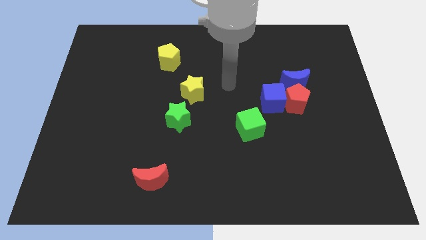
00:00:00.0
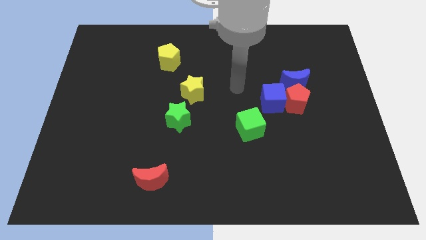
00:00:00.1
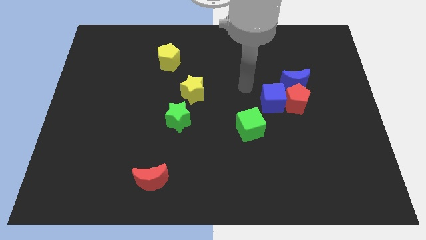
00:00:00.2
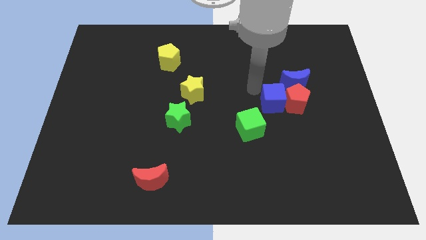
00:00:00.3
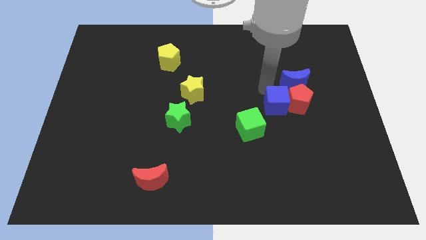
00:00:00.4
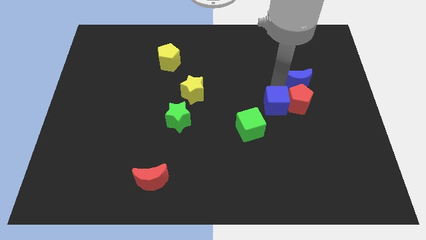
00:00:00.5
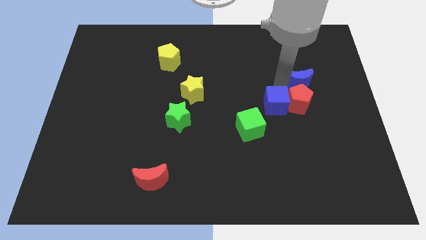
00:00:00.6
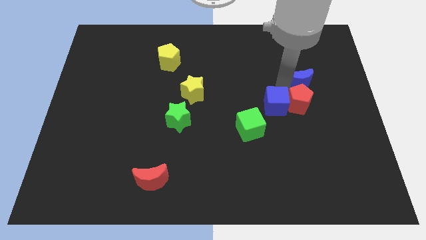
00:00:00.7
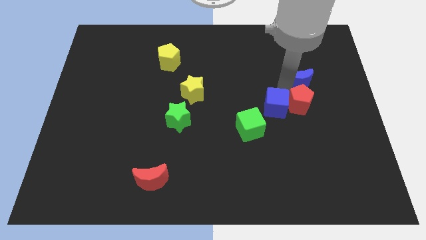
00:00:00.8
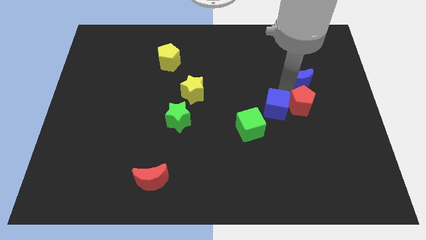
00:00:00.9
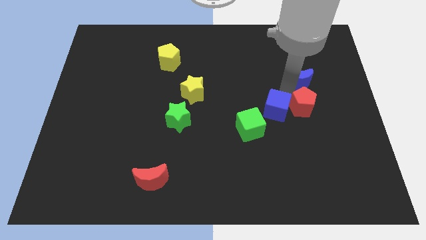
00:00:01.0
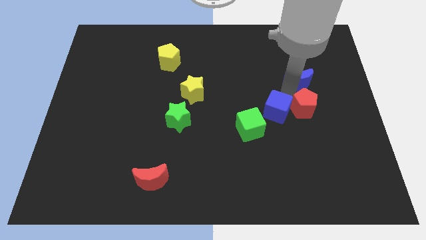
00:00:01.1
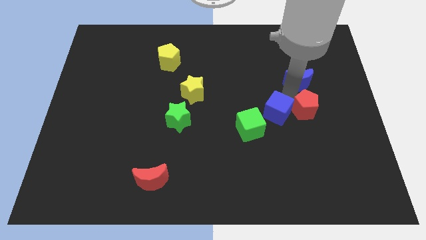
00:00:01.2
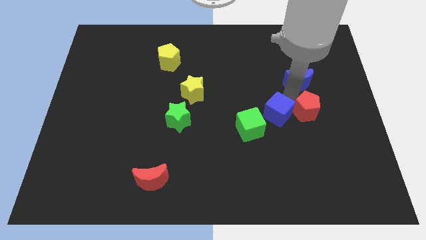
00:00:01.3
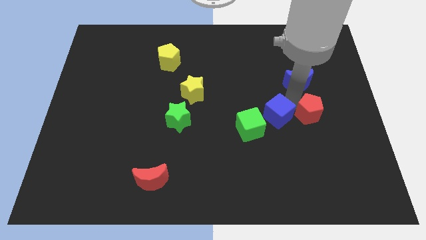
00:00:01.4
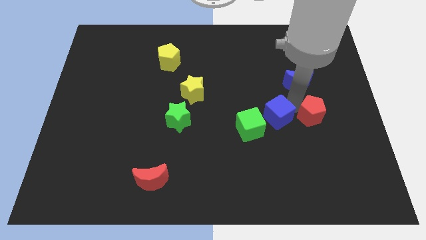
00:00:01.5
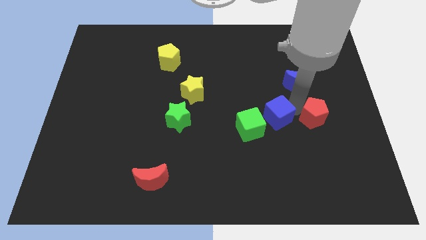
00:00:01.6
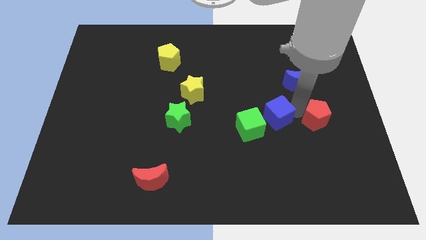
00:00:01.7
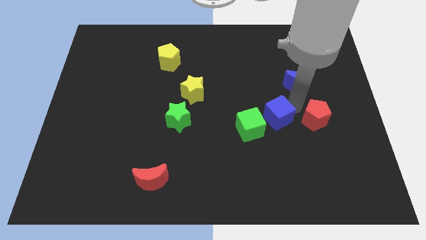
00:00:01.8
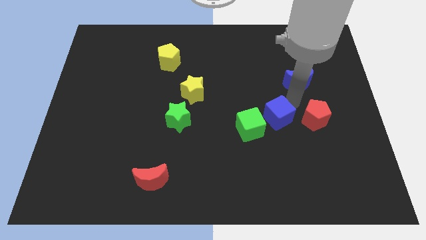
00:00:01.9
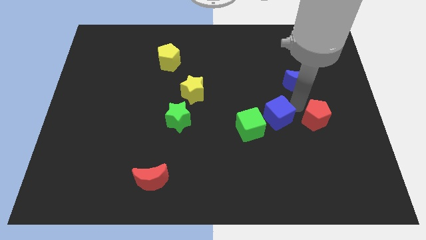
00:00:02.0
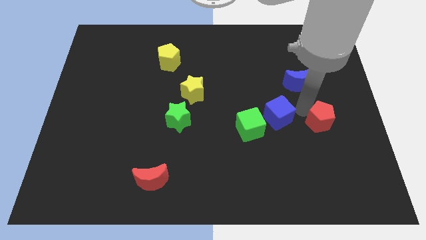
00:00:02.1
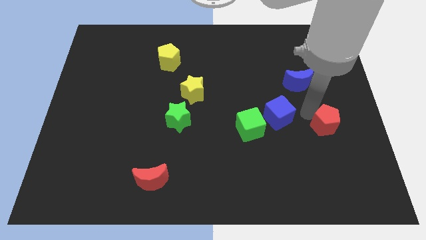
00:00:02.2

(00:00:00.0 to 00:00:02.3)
pull the red pentagon apart from the blue cube and blue moon

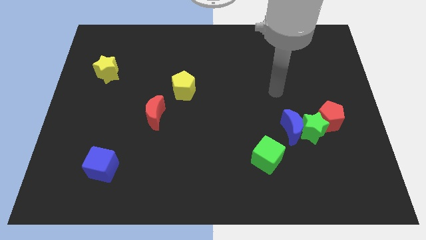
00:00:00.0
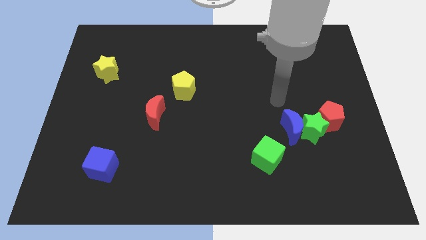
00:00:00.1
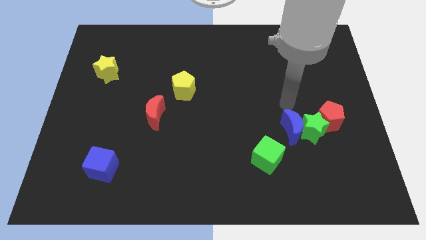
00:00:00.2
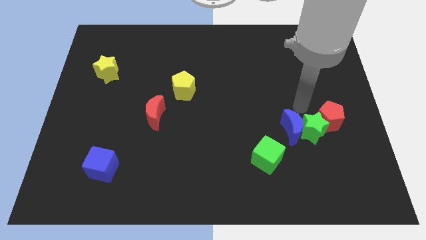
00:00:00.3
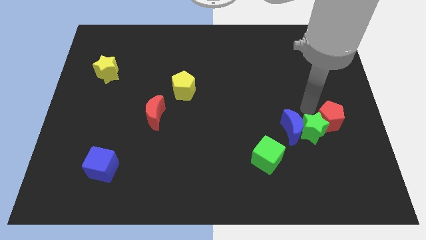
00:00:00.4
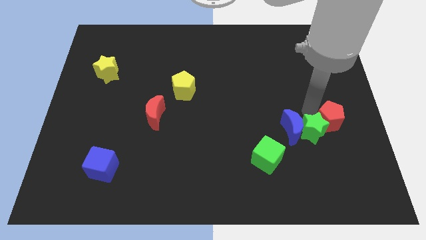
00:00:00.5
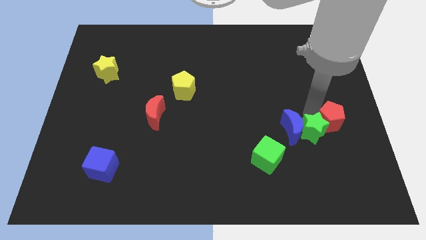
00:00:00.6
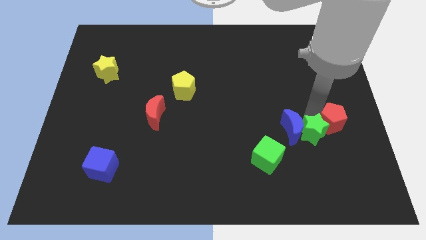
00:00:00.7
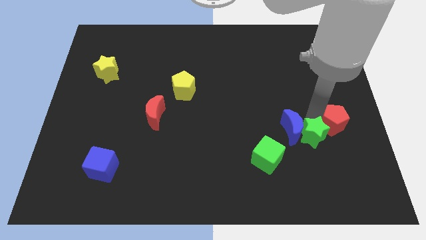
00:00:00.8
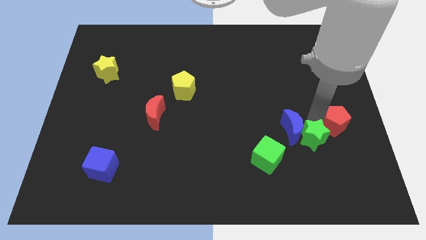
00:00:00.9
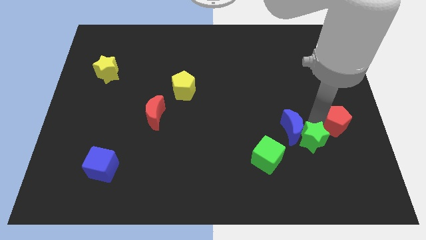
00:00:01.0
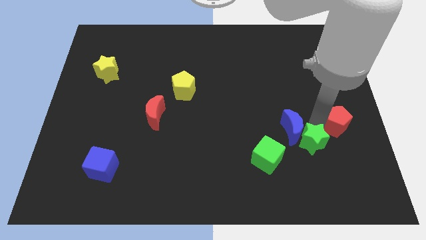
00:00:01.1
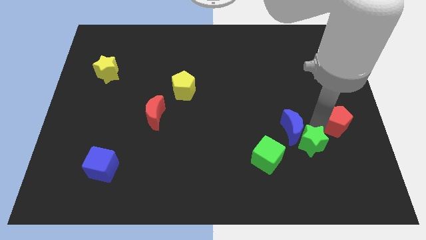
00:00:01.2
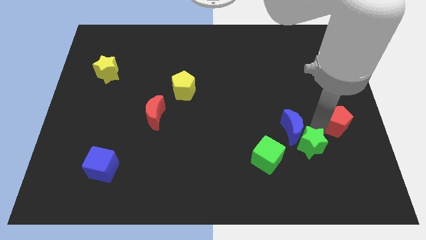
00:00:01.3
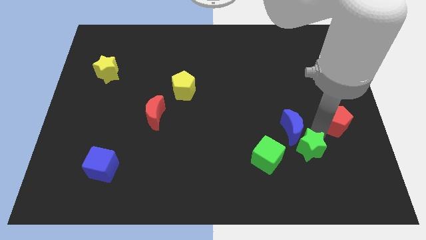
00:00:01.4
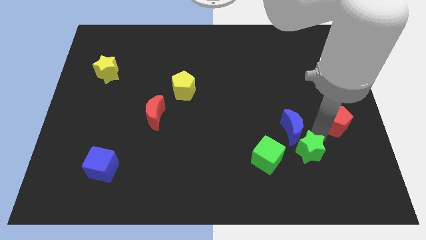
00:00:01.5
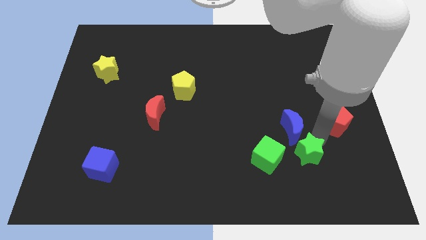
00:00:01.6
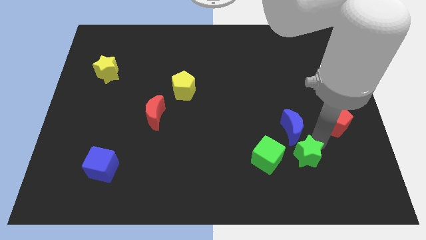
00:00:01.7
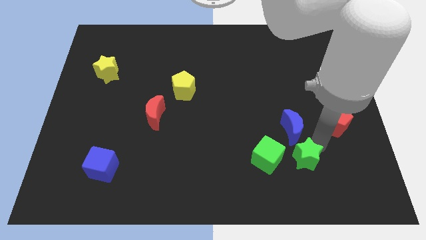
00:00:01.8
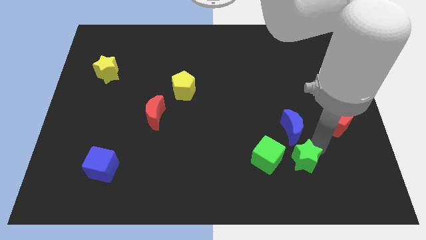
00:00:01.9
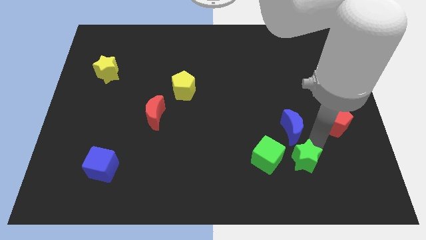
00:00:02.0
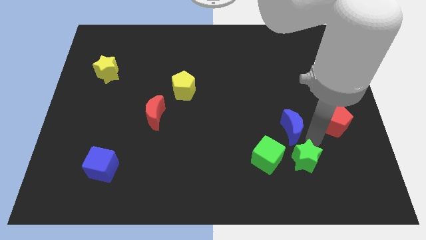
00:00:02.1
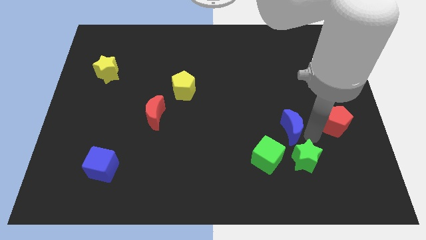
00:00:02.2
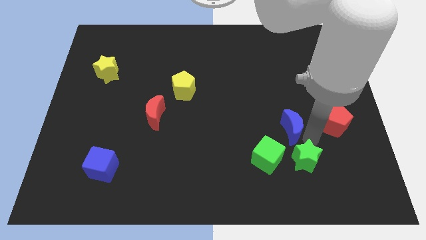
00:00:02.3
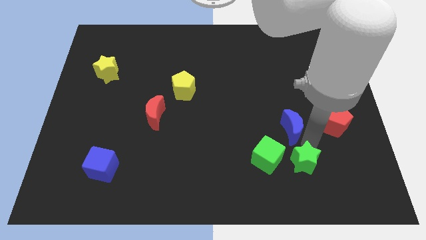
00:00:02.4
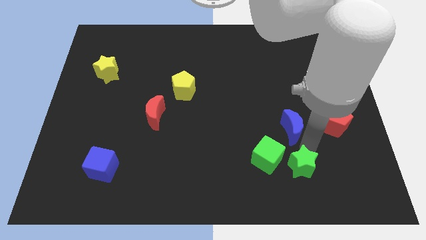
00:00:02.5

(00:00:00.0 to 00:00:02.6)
pull the green star apart from the blue moon and red pentagon

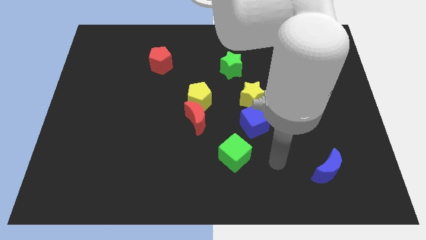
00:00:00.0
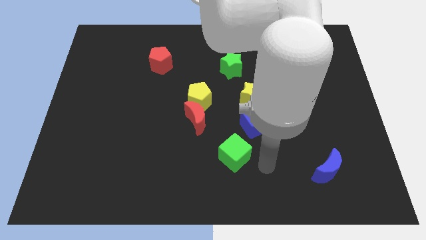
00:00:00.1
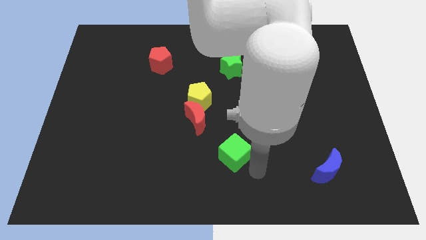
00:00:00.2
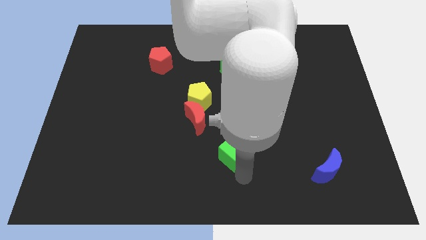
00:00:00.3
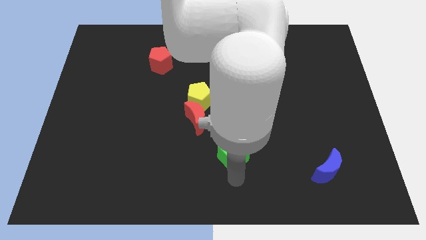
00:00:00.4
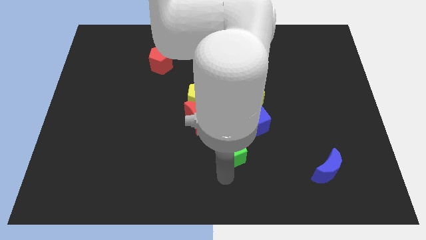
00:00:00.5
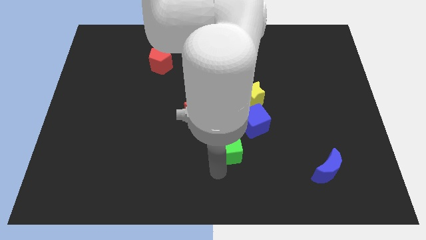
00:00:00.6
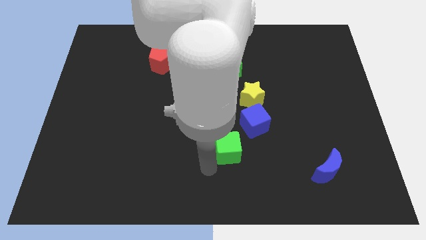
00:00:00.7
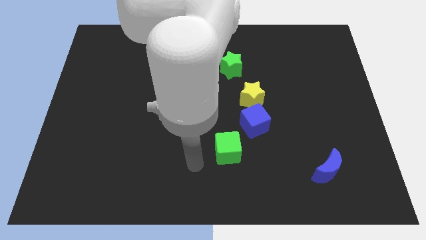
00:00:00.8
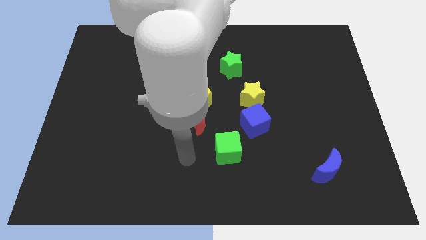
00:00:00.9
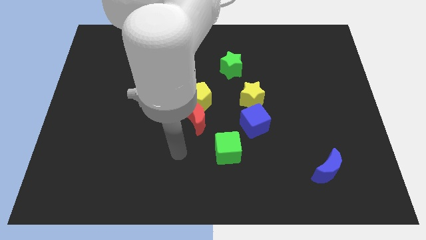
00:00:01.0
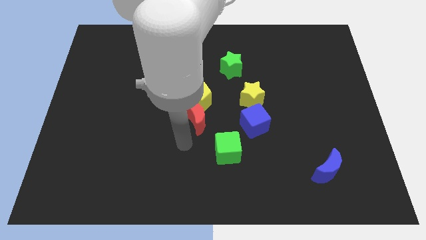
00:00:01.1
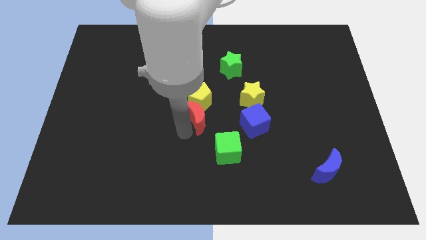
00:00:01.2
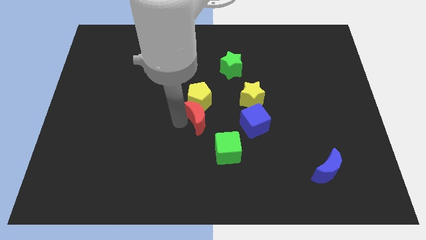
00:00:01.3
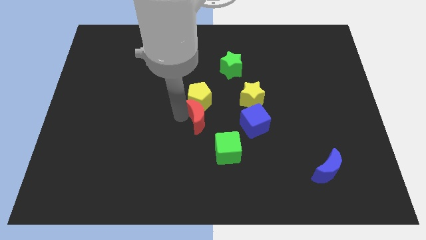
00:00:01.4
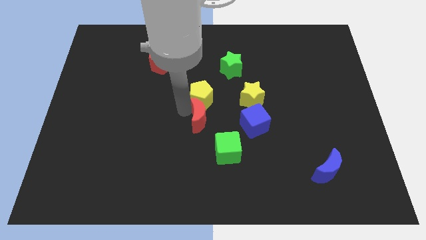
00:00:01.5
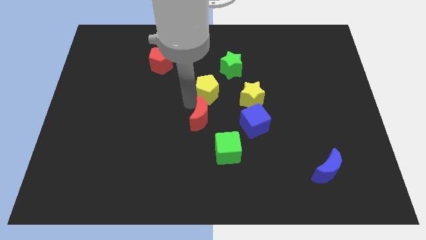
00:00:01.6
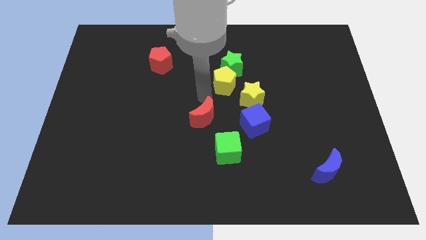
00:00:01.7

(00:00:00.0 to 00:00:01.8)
separate the red moon from the yellow pentagon

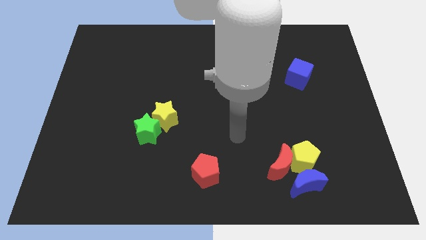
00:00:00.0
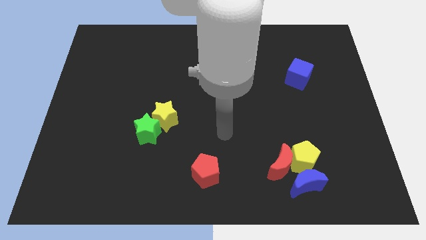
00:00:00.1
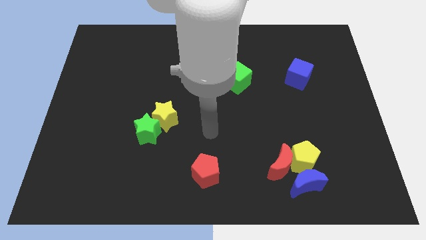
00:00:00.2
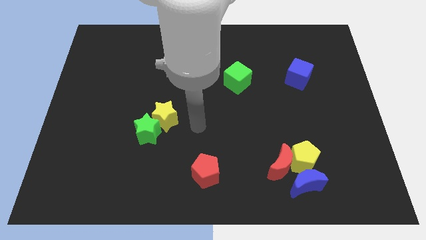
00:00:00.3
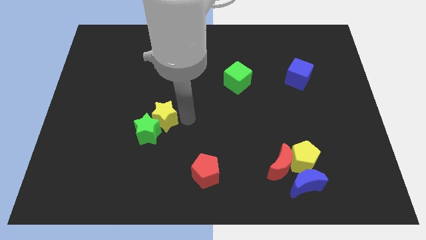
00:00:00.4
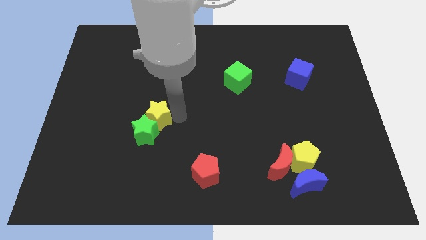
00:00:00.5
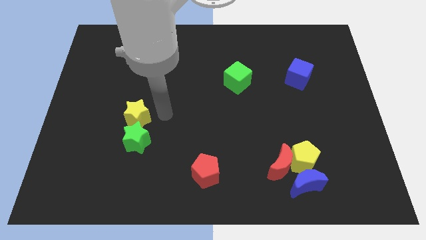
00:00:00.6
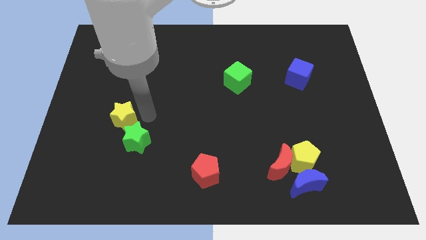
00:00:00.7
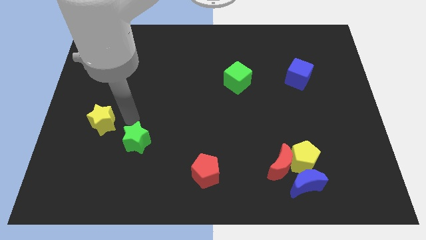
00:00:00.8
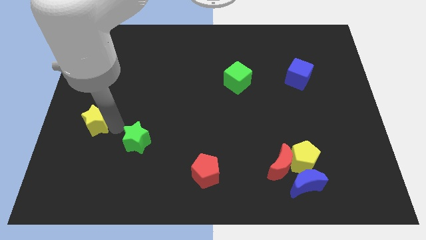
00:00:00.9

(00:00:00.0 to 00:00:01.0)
separate the green star from the yellow star

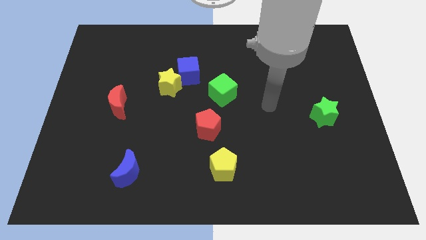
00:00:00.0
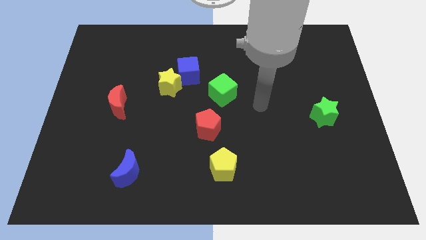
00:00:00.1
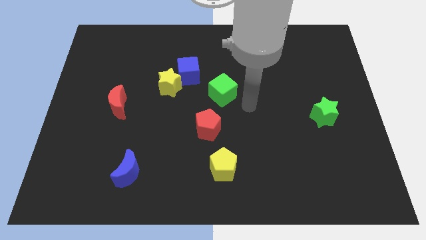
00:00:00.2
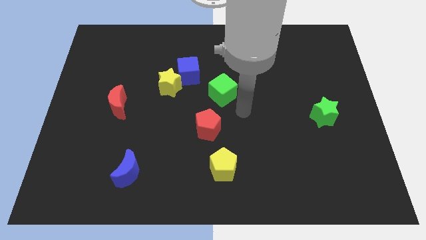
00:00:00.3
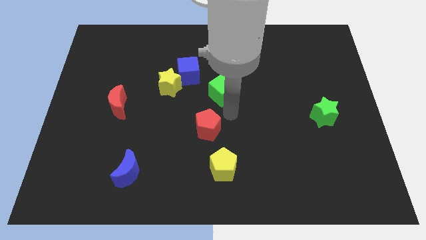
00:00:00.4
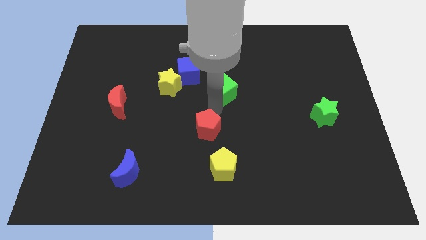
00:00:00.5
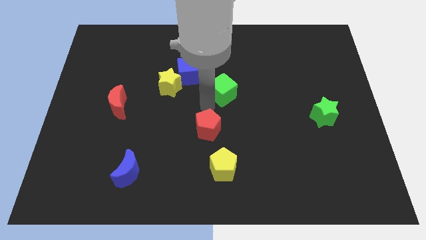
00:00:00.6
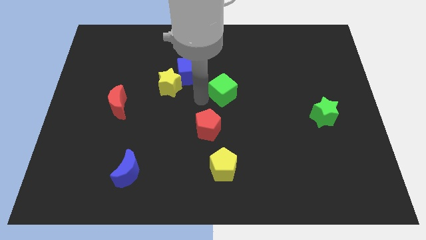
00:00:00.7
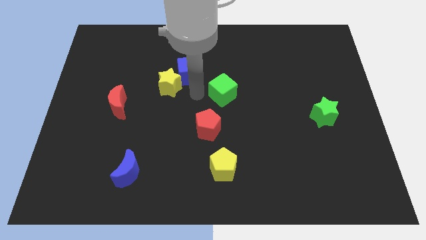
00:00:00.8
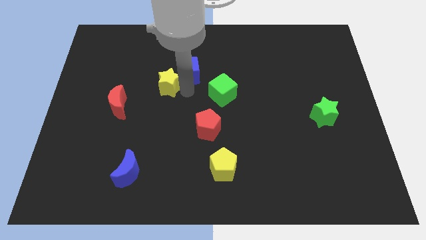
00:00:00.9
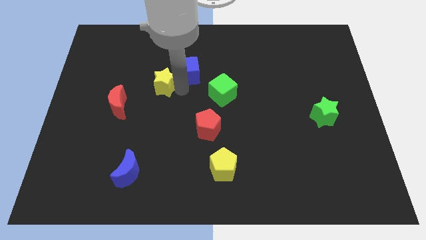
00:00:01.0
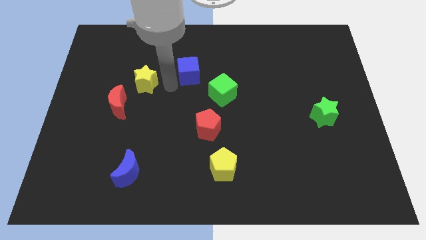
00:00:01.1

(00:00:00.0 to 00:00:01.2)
pull the blue cube apart from the yellow star

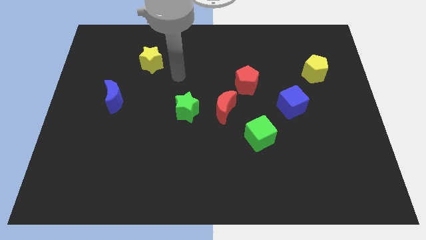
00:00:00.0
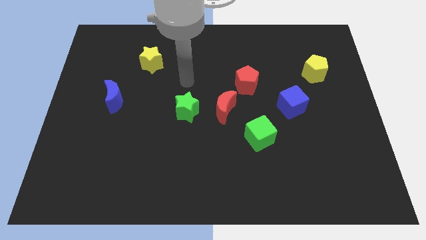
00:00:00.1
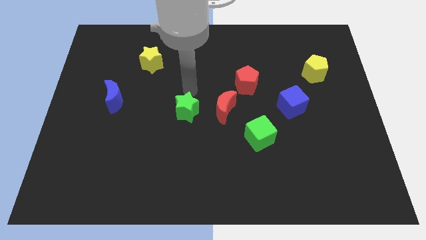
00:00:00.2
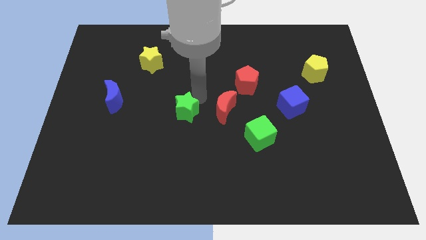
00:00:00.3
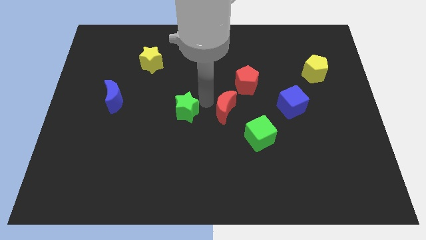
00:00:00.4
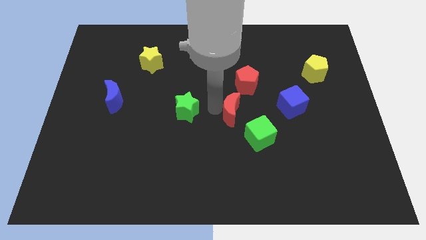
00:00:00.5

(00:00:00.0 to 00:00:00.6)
separate the green star from the red moon
